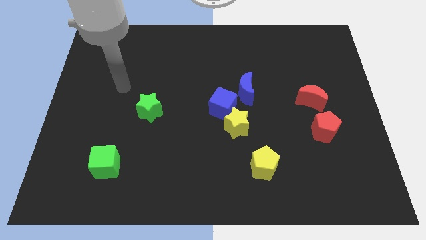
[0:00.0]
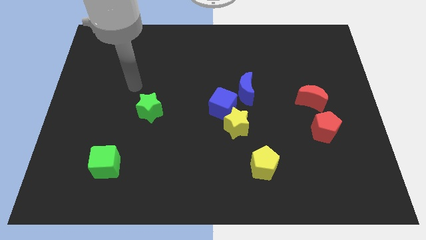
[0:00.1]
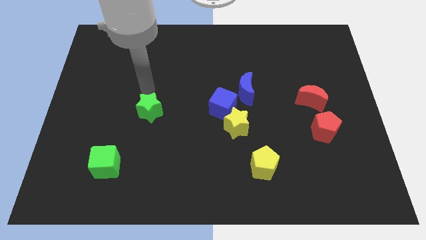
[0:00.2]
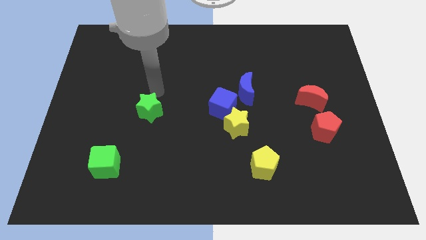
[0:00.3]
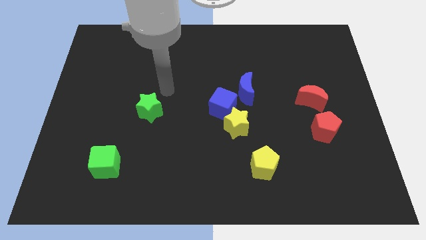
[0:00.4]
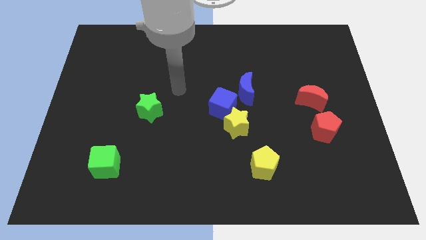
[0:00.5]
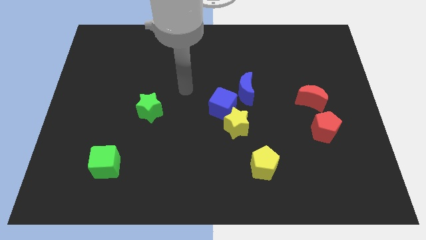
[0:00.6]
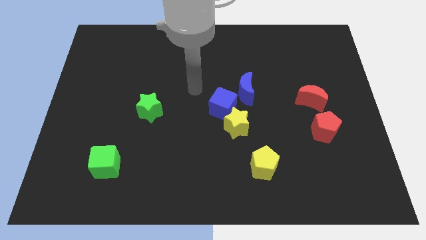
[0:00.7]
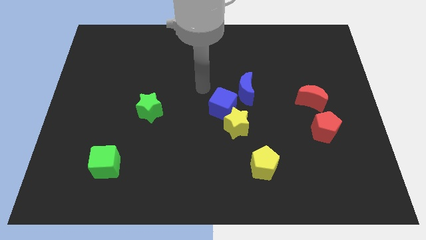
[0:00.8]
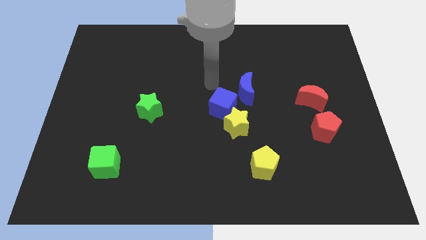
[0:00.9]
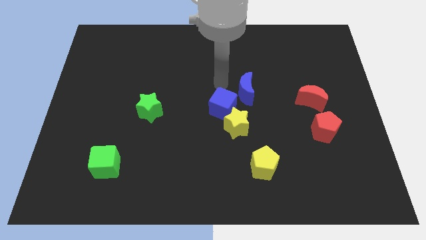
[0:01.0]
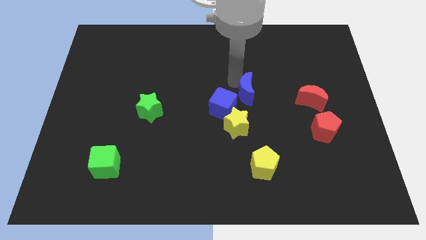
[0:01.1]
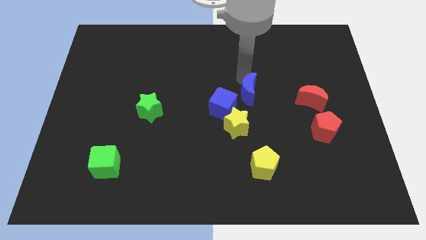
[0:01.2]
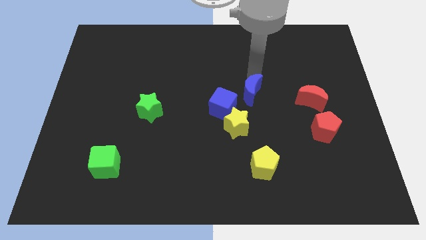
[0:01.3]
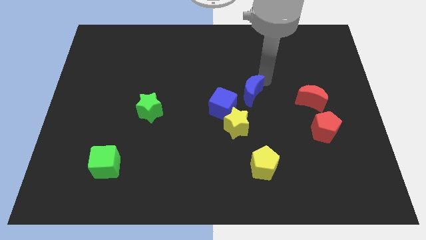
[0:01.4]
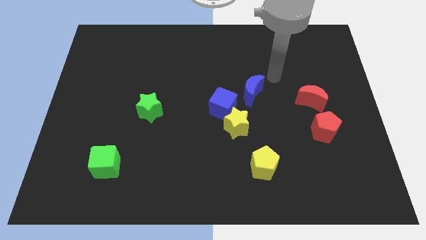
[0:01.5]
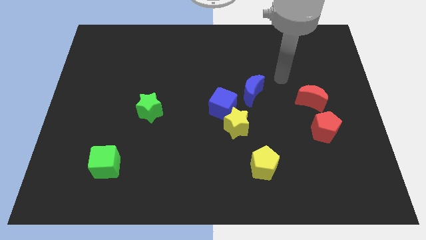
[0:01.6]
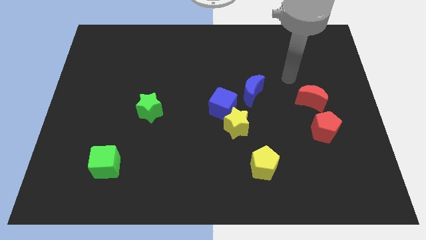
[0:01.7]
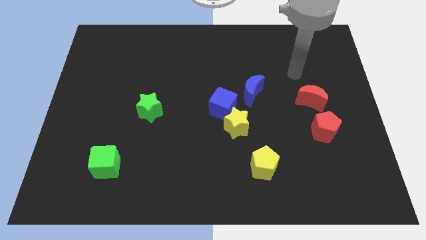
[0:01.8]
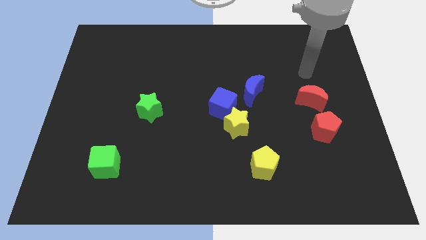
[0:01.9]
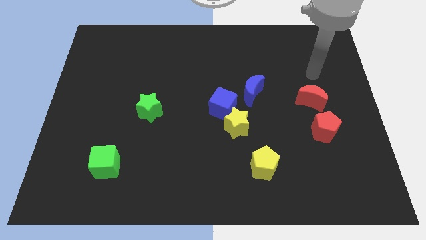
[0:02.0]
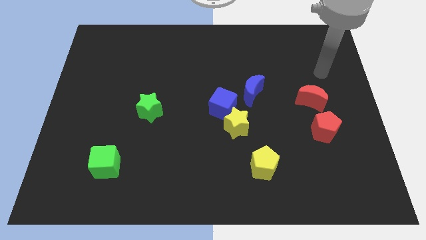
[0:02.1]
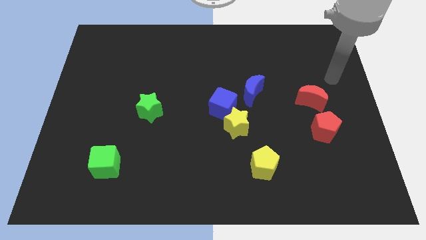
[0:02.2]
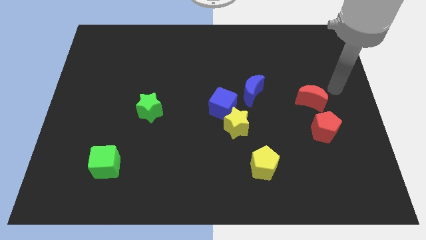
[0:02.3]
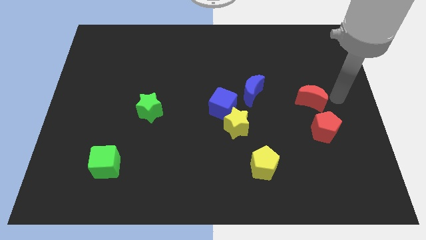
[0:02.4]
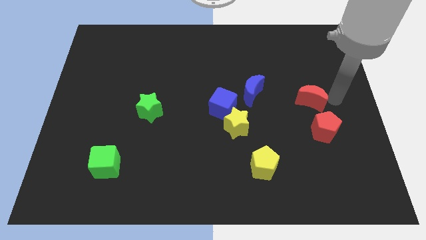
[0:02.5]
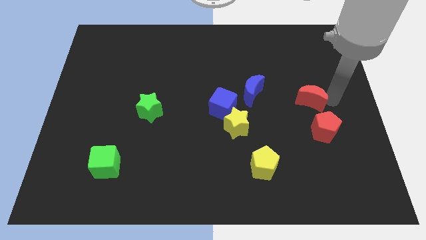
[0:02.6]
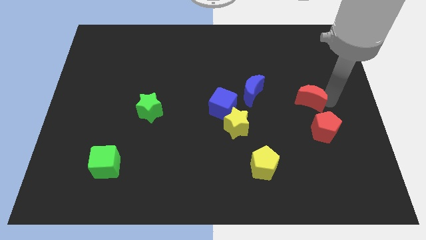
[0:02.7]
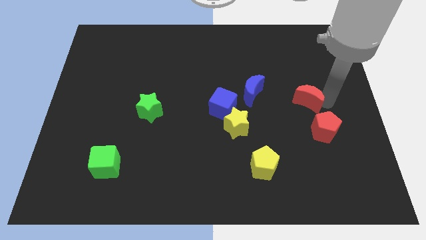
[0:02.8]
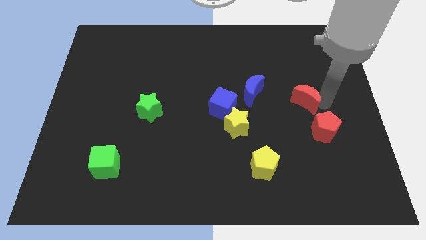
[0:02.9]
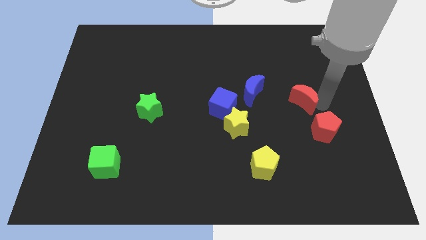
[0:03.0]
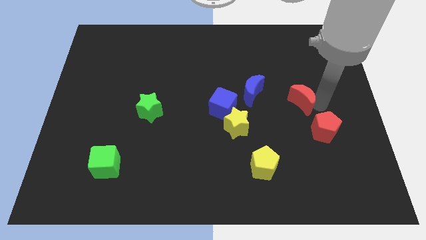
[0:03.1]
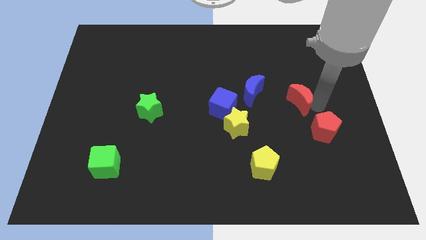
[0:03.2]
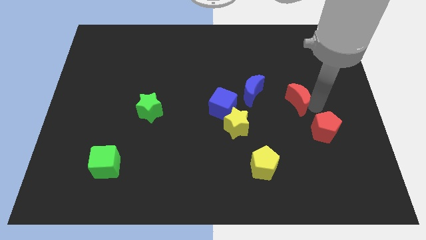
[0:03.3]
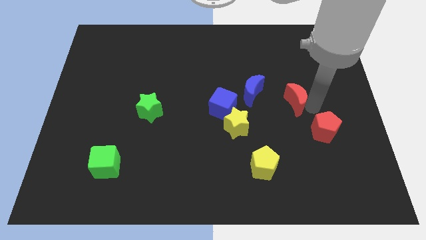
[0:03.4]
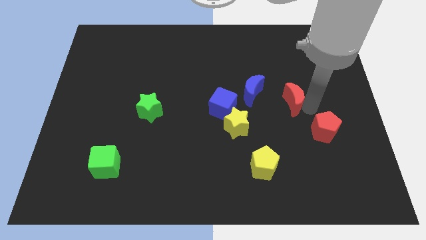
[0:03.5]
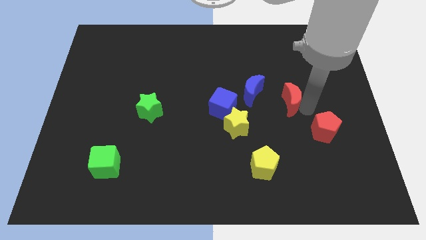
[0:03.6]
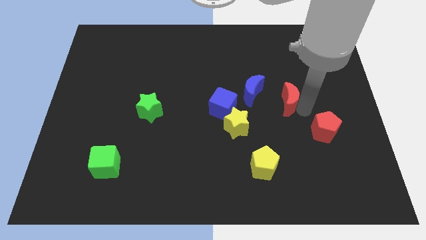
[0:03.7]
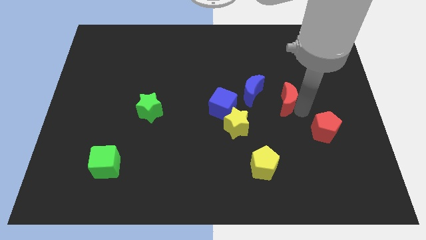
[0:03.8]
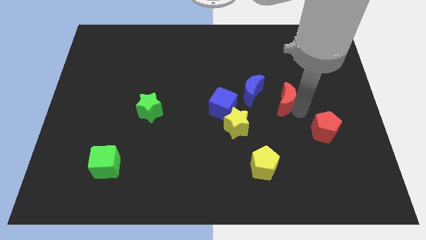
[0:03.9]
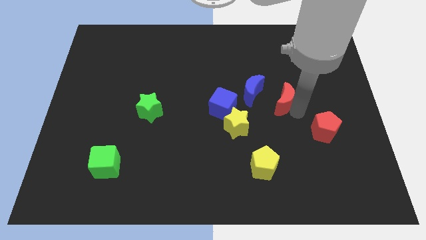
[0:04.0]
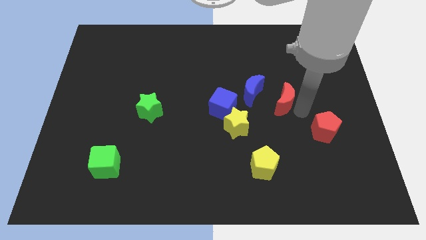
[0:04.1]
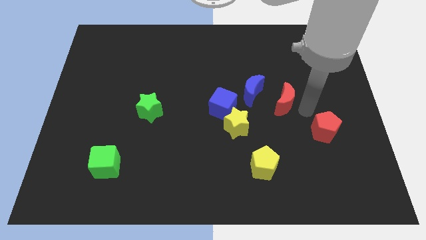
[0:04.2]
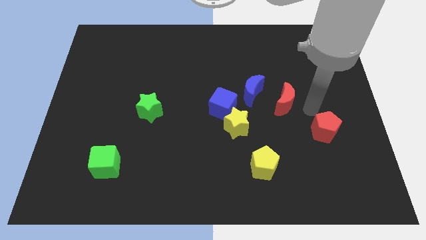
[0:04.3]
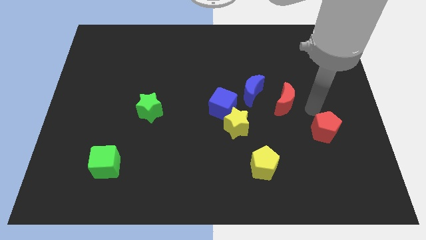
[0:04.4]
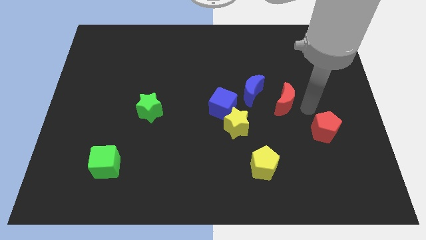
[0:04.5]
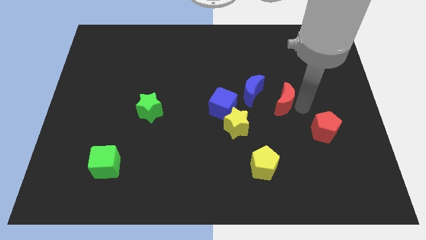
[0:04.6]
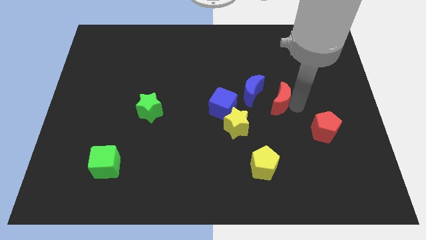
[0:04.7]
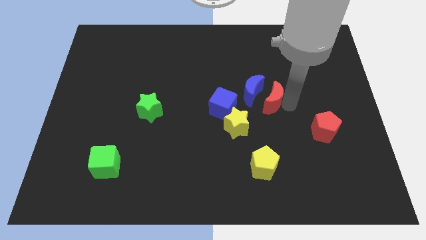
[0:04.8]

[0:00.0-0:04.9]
move the red moon to the blue moon

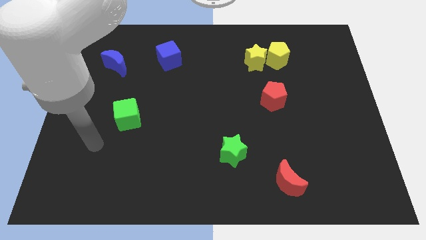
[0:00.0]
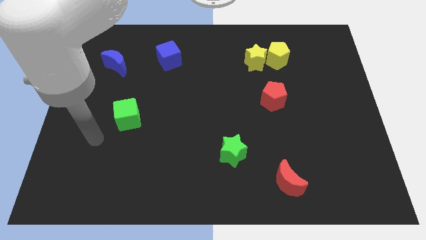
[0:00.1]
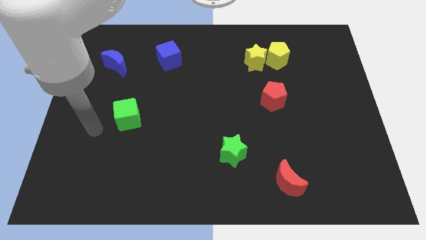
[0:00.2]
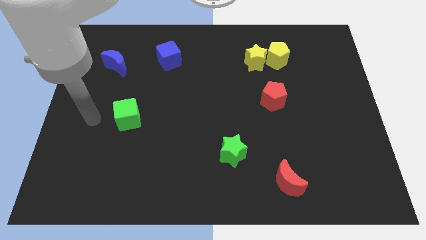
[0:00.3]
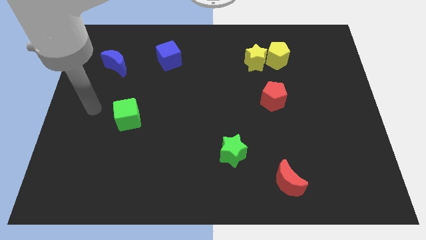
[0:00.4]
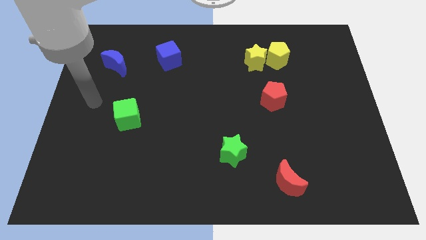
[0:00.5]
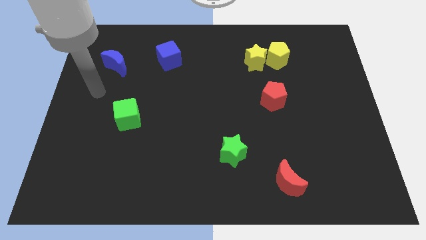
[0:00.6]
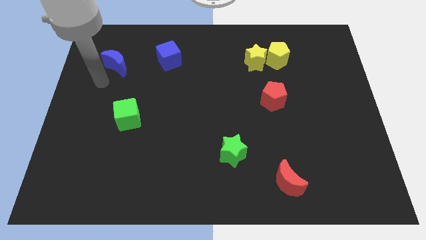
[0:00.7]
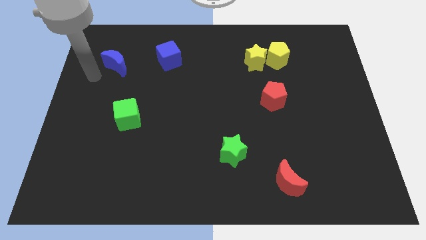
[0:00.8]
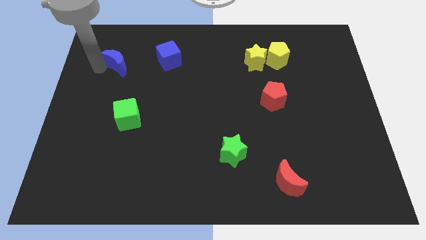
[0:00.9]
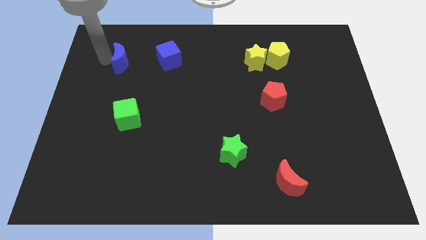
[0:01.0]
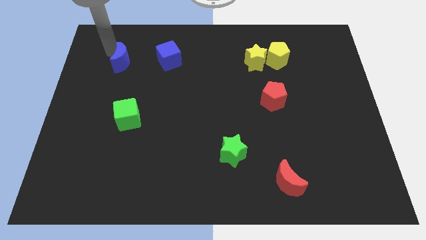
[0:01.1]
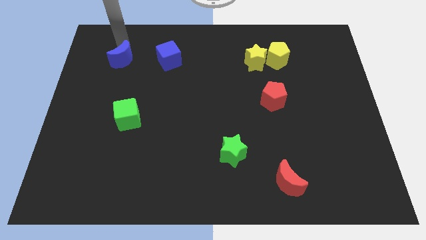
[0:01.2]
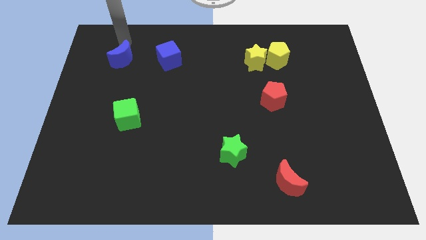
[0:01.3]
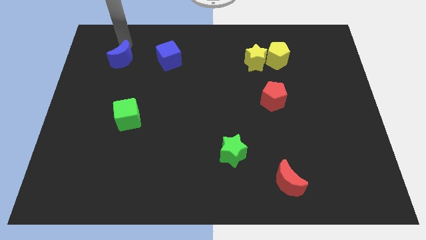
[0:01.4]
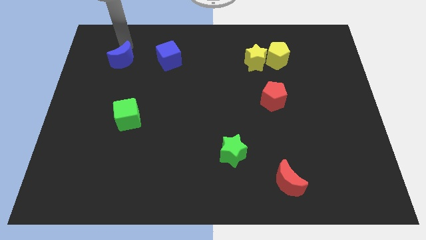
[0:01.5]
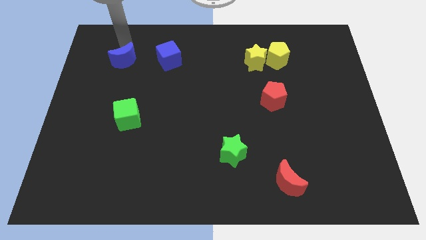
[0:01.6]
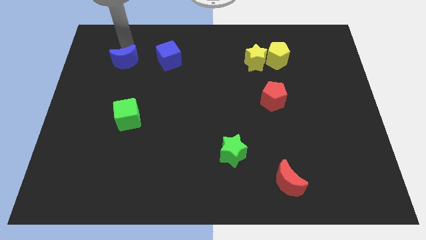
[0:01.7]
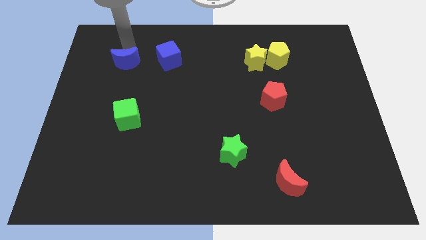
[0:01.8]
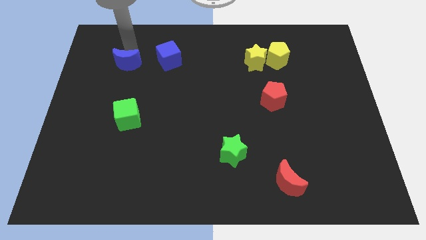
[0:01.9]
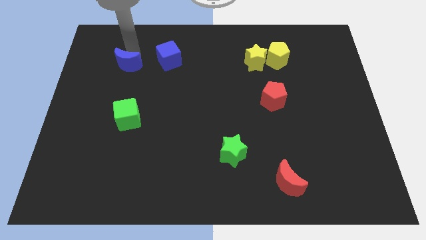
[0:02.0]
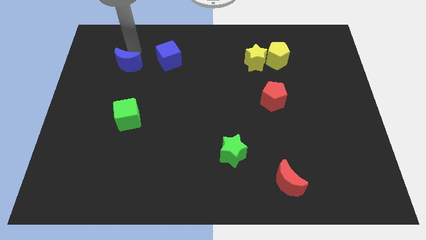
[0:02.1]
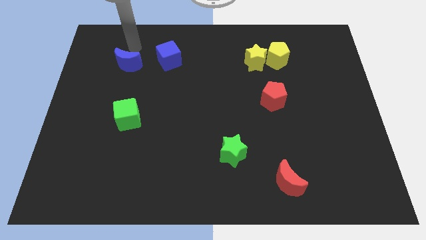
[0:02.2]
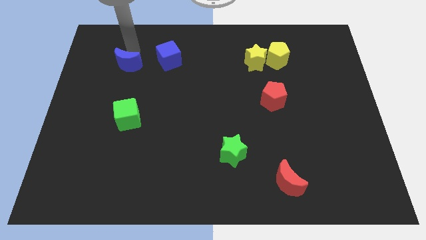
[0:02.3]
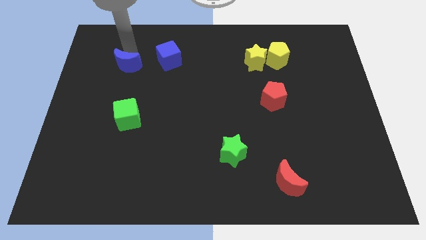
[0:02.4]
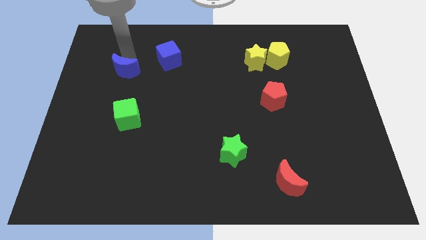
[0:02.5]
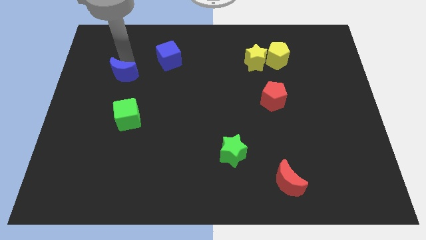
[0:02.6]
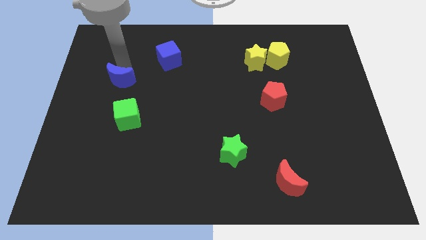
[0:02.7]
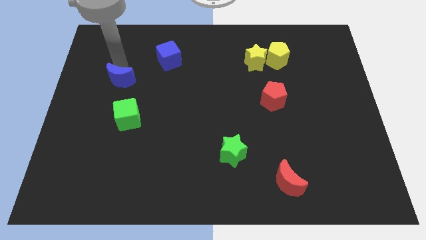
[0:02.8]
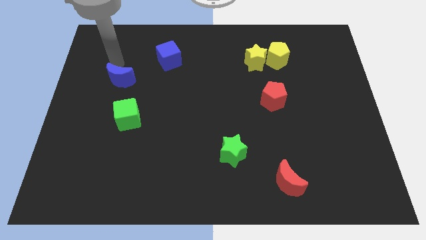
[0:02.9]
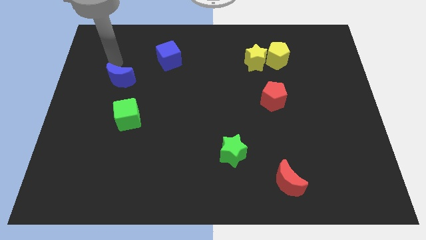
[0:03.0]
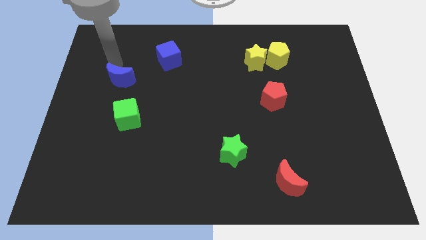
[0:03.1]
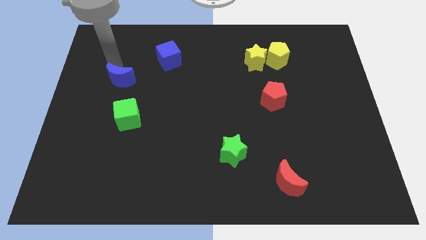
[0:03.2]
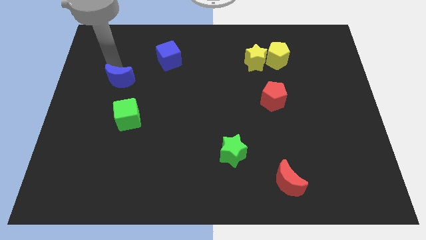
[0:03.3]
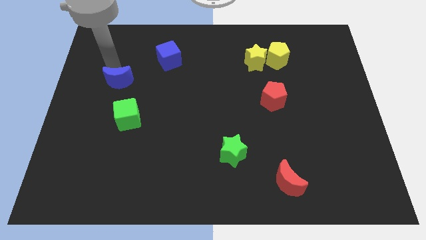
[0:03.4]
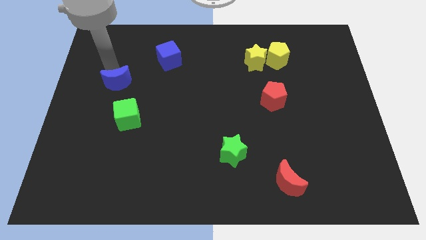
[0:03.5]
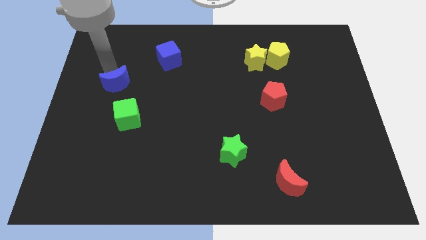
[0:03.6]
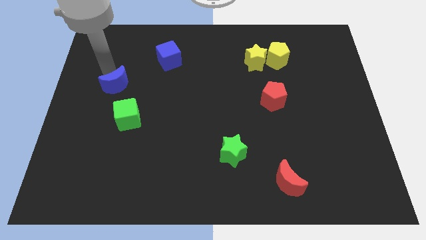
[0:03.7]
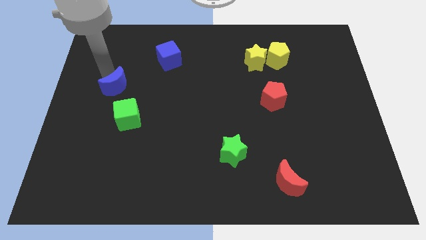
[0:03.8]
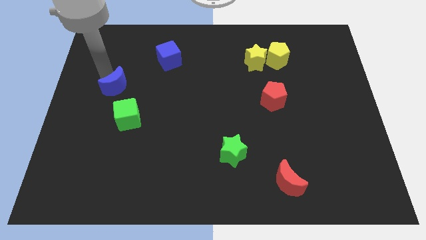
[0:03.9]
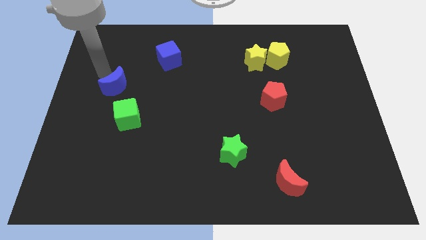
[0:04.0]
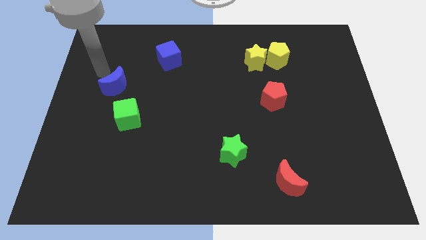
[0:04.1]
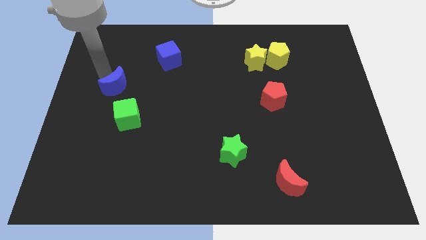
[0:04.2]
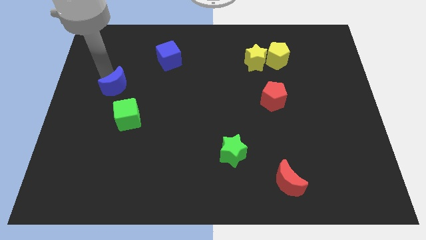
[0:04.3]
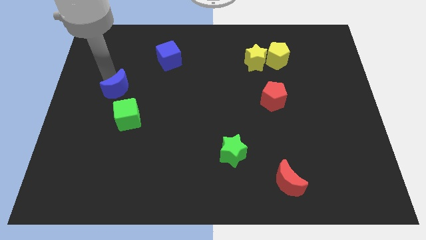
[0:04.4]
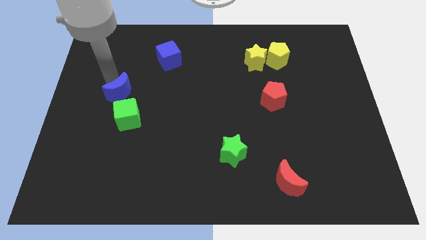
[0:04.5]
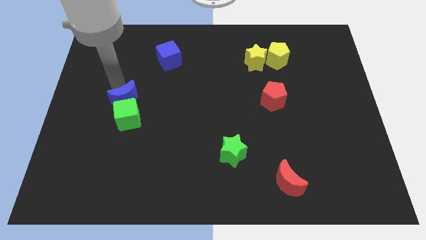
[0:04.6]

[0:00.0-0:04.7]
move the blue moon to the green cube
